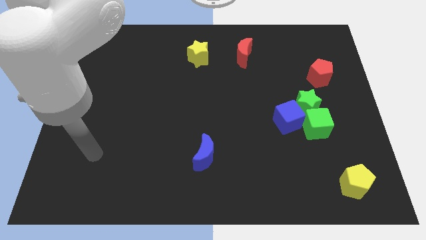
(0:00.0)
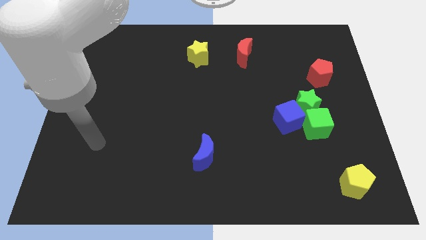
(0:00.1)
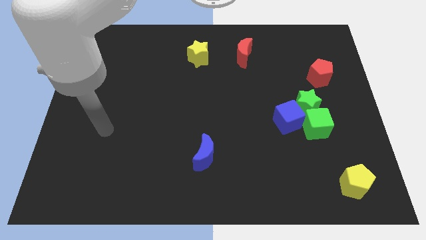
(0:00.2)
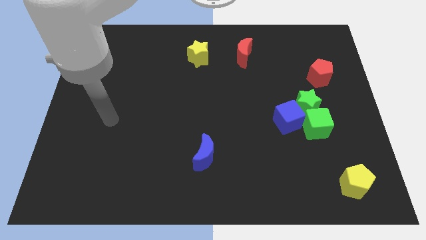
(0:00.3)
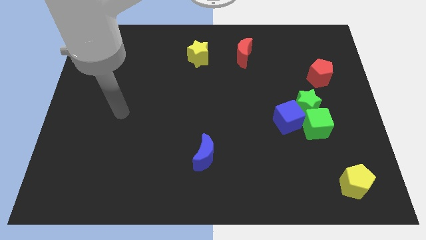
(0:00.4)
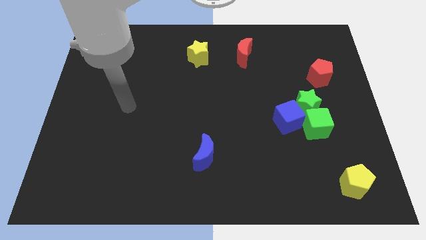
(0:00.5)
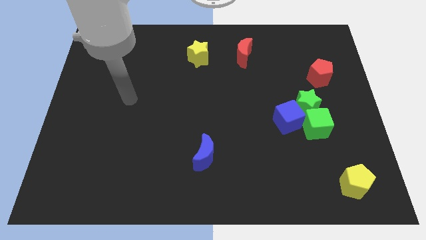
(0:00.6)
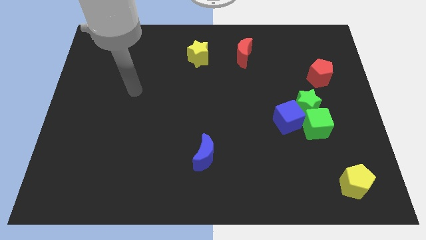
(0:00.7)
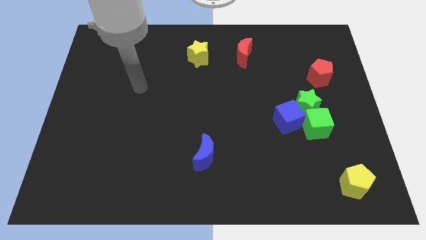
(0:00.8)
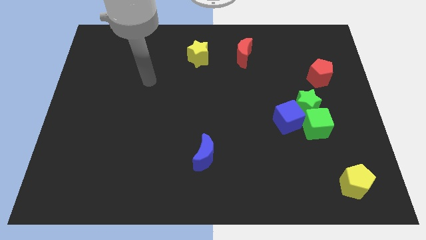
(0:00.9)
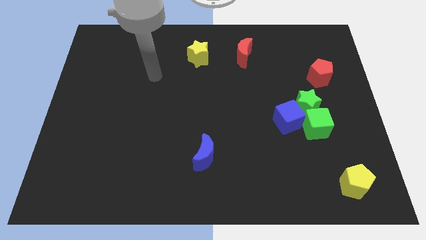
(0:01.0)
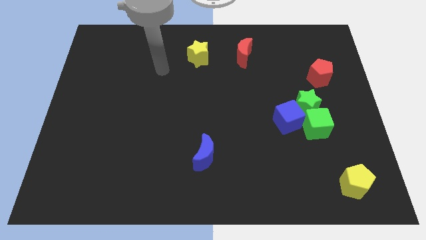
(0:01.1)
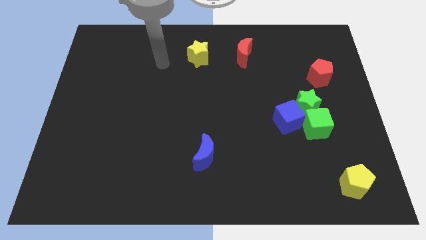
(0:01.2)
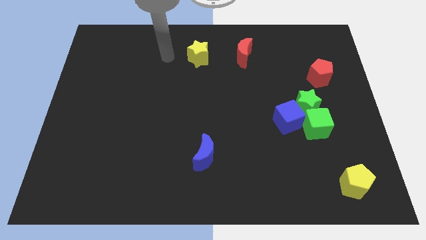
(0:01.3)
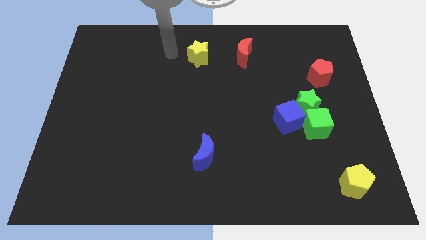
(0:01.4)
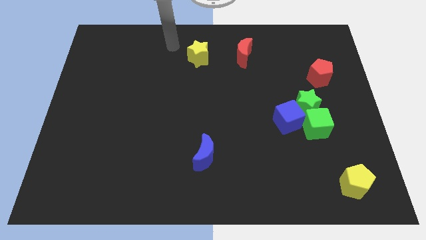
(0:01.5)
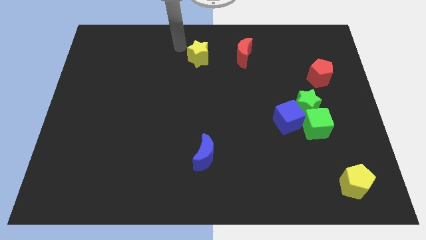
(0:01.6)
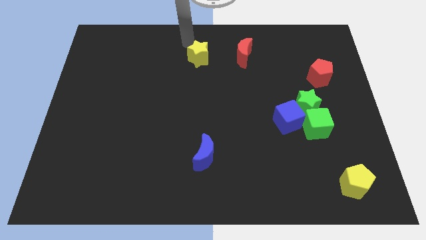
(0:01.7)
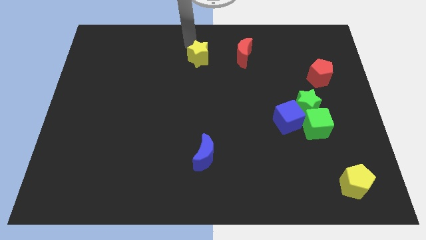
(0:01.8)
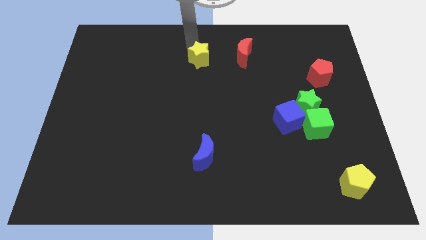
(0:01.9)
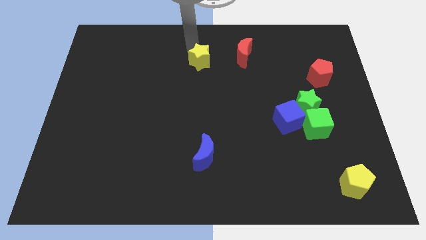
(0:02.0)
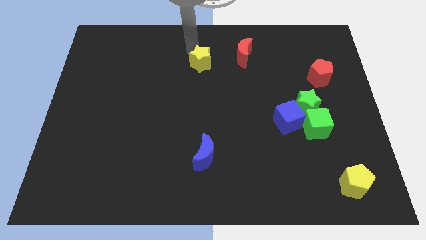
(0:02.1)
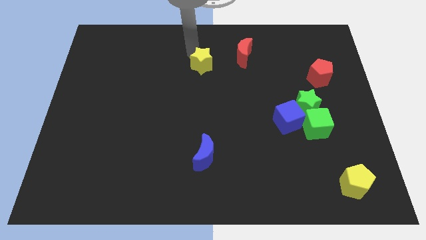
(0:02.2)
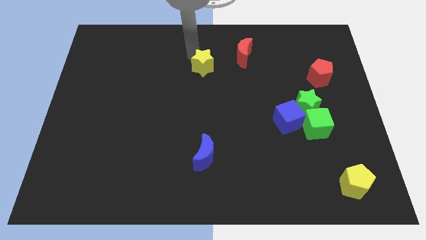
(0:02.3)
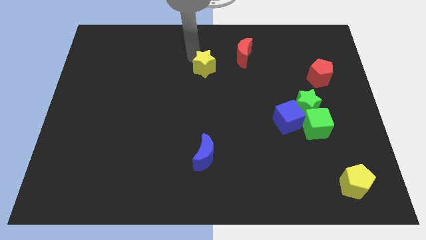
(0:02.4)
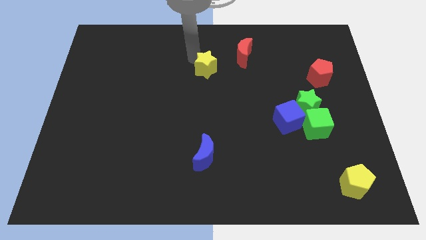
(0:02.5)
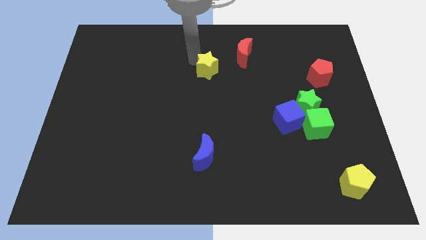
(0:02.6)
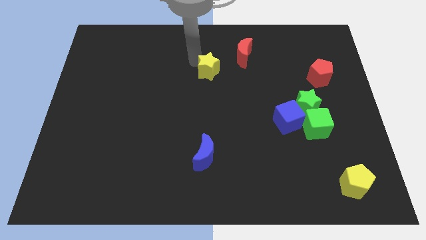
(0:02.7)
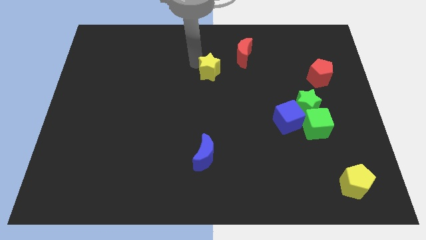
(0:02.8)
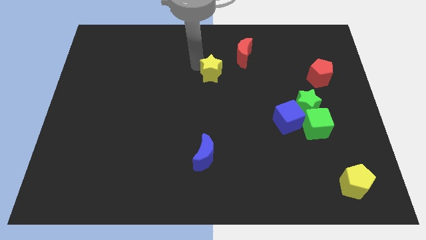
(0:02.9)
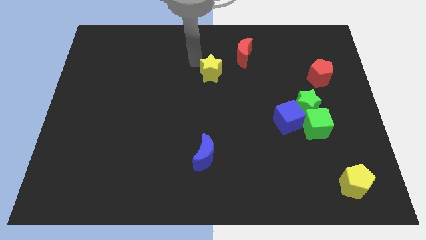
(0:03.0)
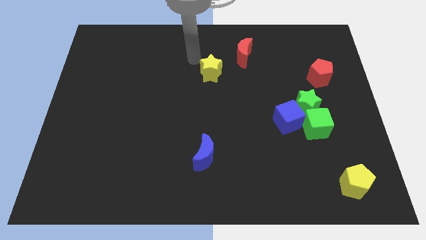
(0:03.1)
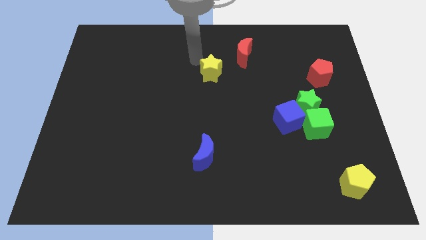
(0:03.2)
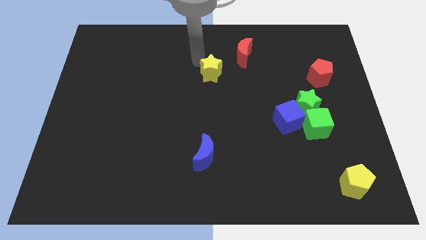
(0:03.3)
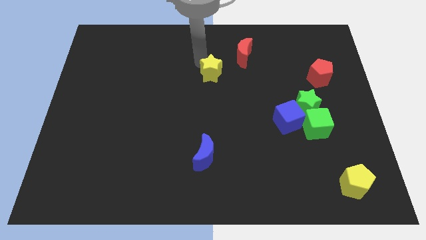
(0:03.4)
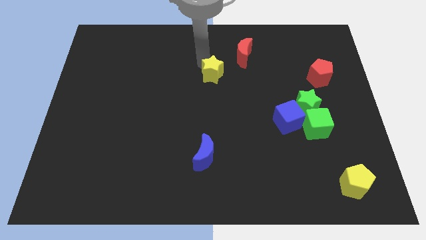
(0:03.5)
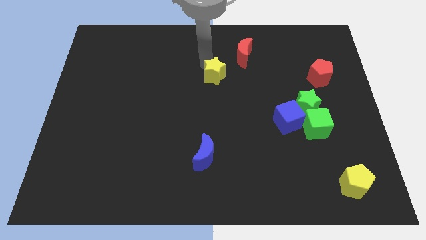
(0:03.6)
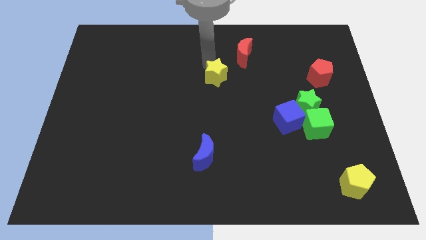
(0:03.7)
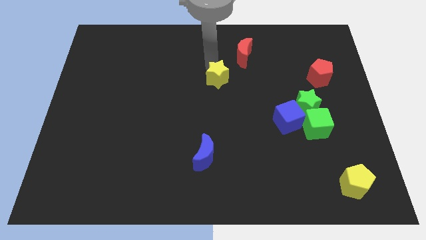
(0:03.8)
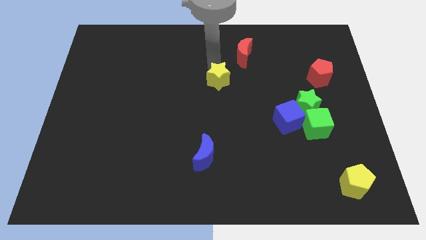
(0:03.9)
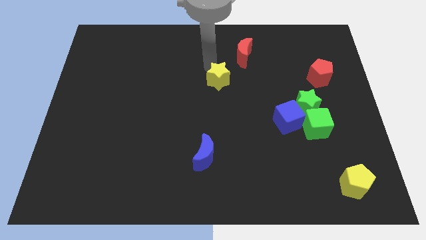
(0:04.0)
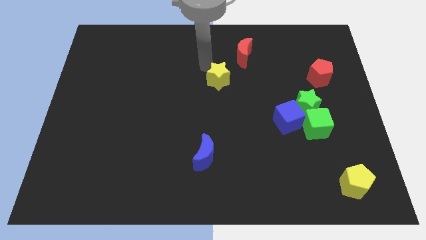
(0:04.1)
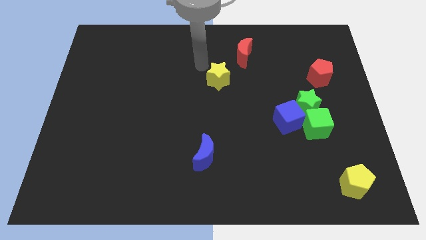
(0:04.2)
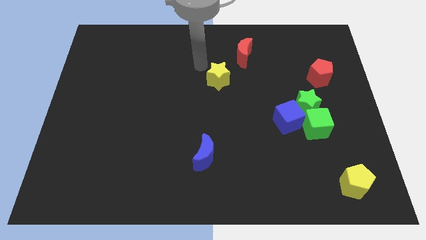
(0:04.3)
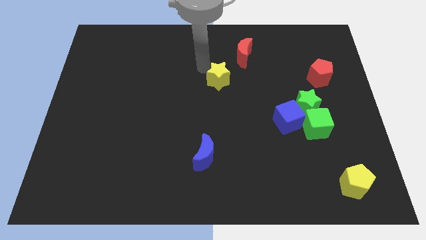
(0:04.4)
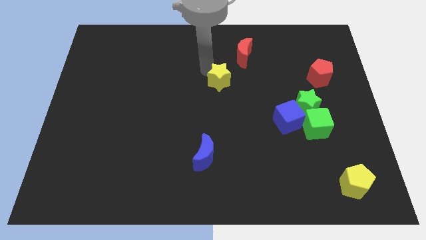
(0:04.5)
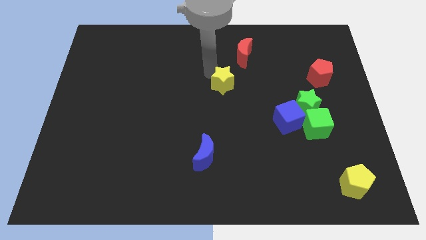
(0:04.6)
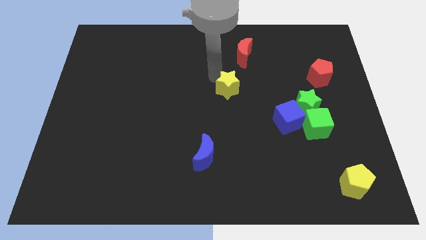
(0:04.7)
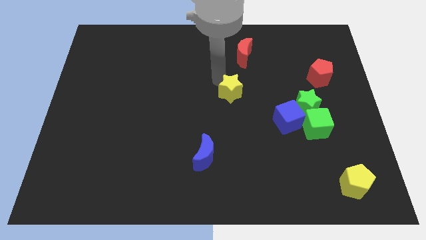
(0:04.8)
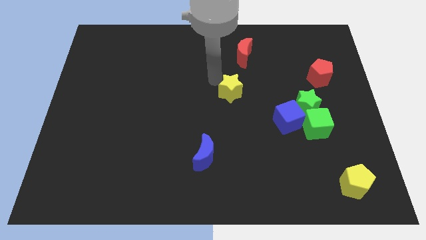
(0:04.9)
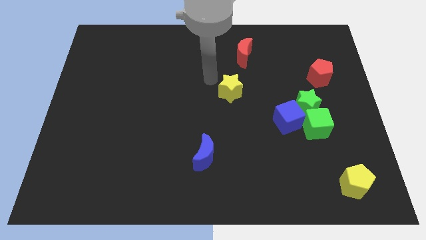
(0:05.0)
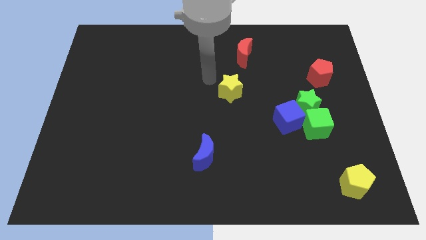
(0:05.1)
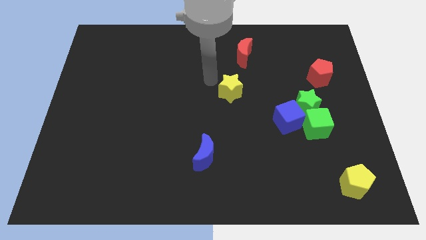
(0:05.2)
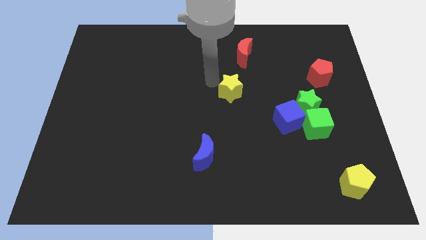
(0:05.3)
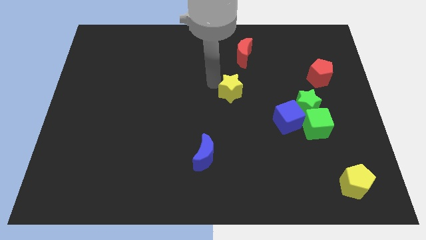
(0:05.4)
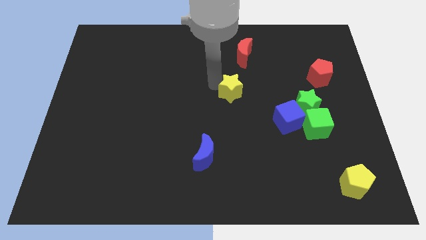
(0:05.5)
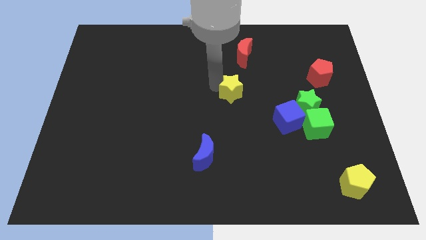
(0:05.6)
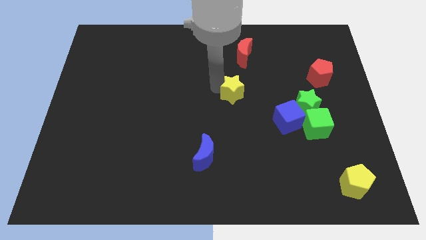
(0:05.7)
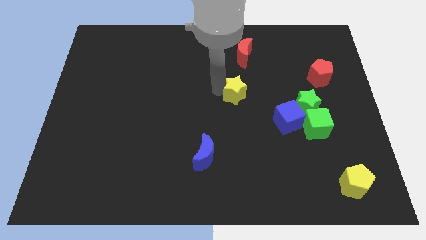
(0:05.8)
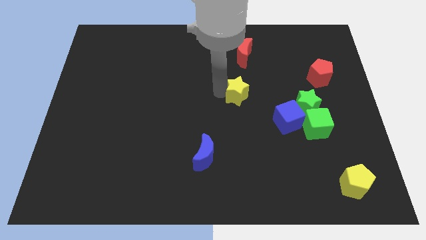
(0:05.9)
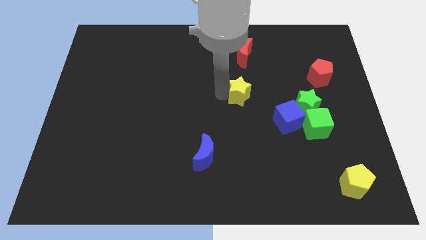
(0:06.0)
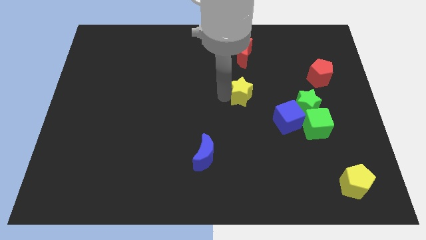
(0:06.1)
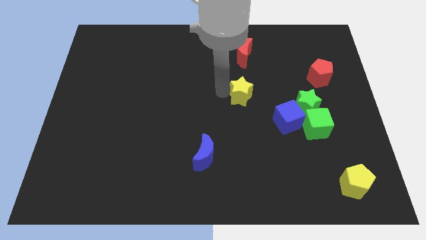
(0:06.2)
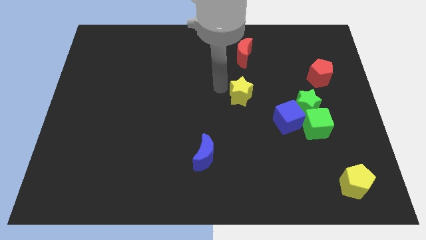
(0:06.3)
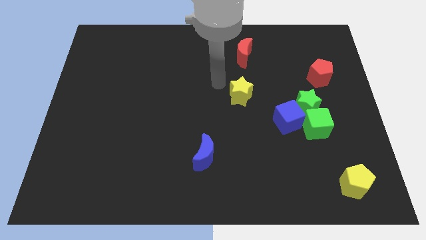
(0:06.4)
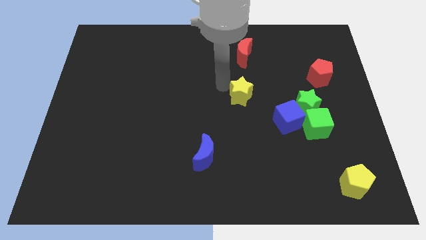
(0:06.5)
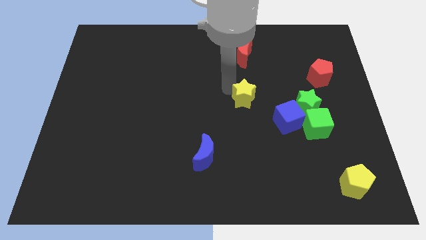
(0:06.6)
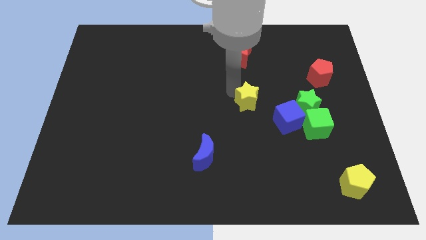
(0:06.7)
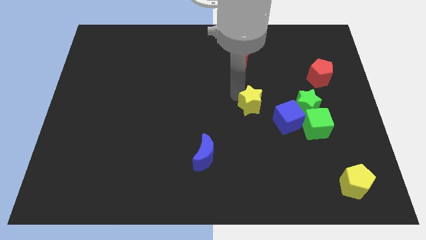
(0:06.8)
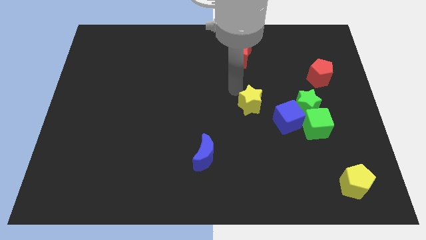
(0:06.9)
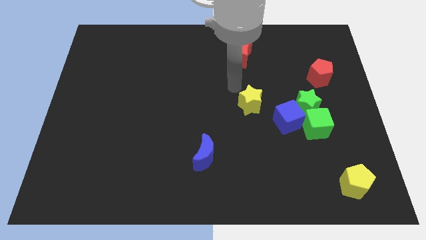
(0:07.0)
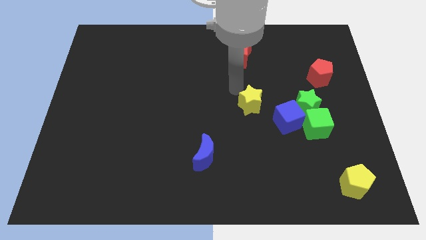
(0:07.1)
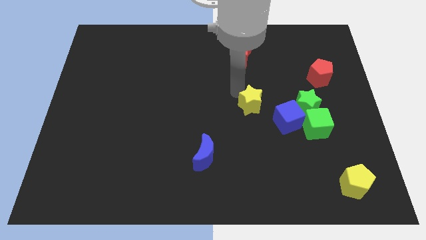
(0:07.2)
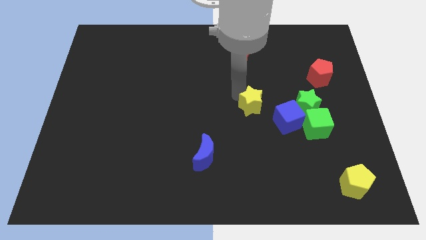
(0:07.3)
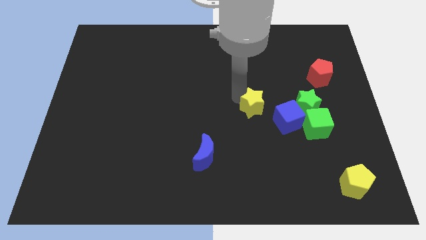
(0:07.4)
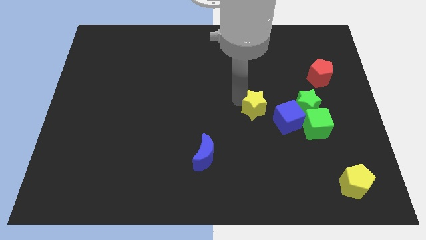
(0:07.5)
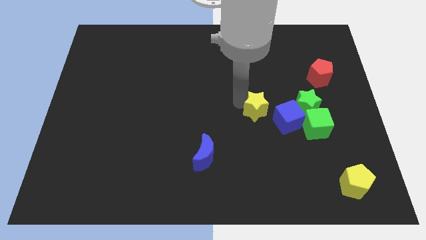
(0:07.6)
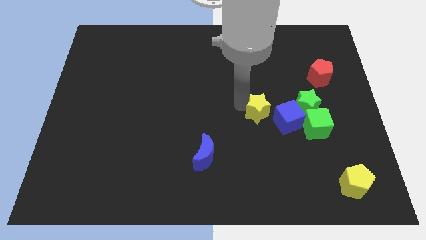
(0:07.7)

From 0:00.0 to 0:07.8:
slide the yellow star just left of the green cube
